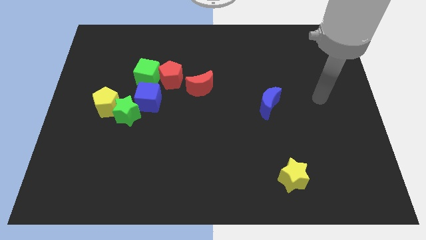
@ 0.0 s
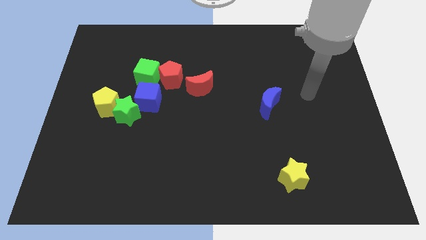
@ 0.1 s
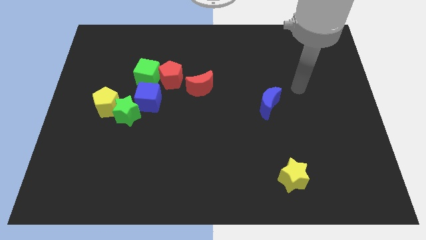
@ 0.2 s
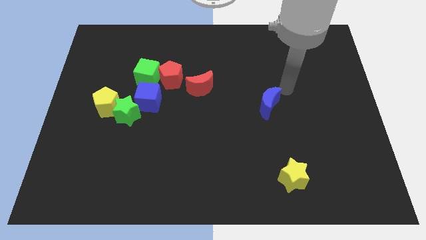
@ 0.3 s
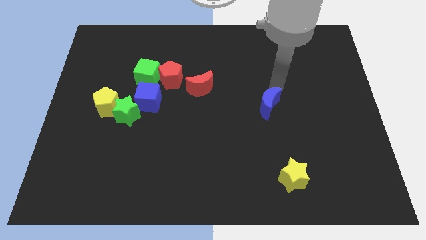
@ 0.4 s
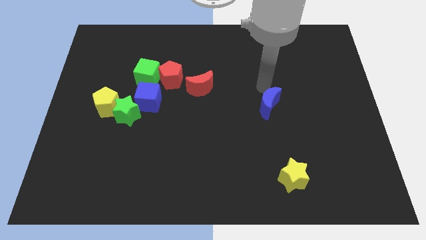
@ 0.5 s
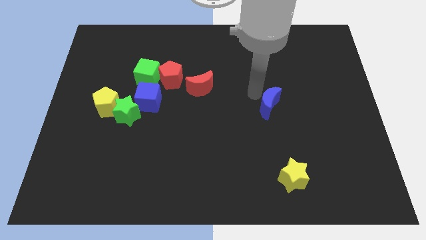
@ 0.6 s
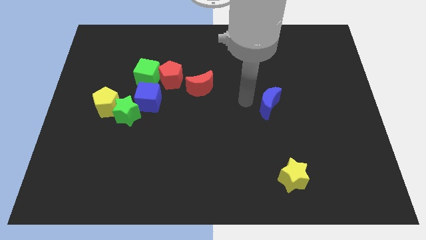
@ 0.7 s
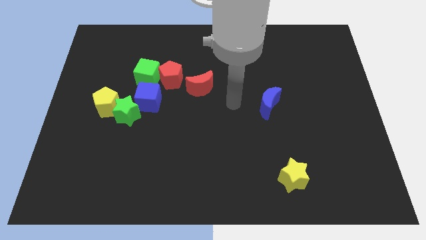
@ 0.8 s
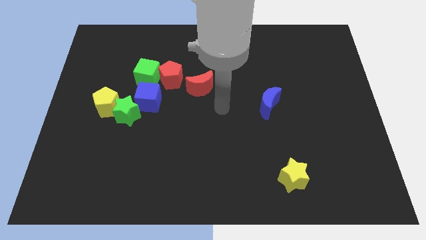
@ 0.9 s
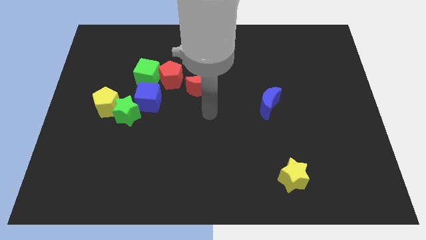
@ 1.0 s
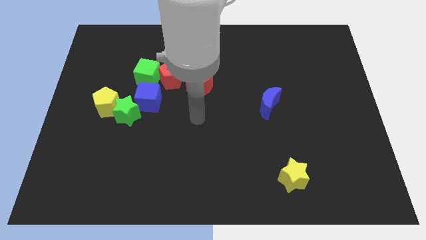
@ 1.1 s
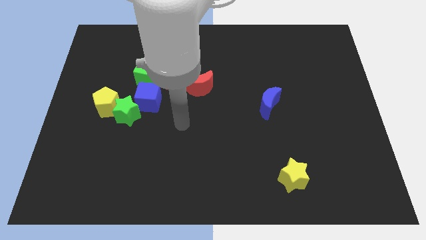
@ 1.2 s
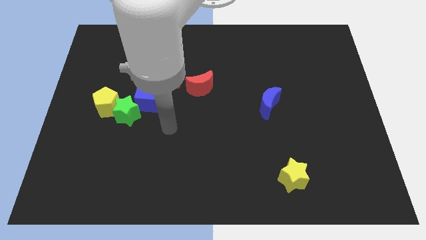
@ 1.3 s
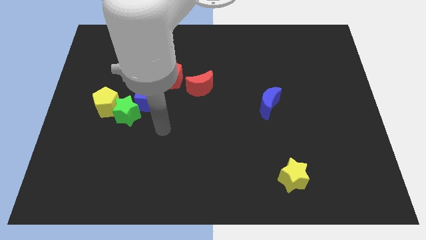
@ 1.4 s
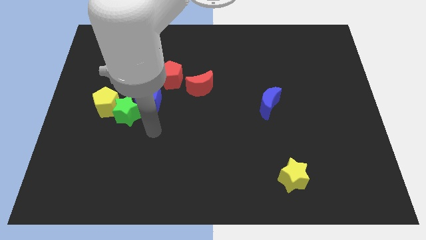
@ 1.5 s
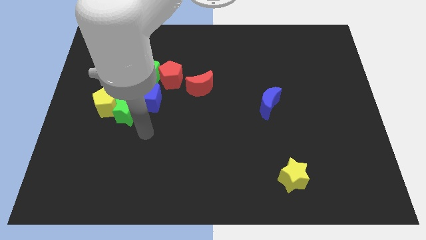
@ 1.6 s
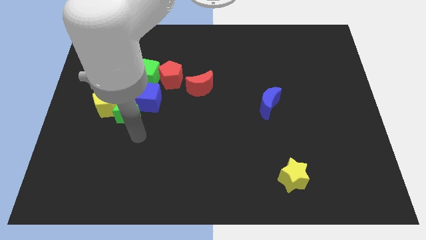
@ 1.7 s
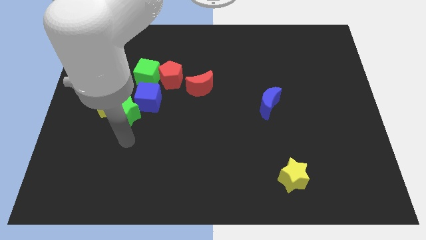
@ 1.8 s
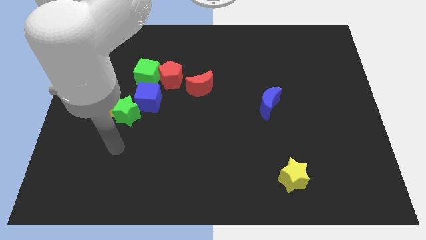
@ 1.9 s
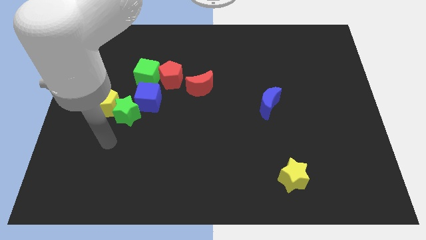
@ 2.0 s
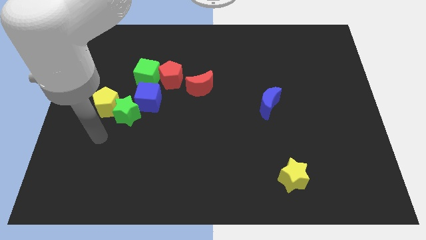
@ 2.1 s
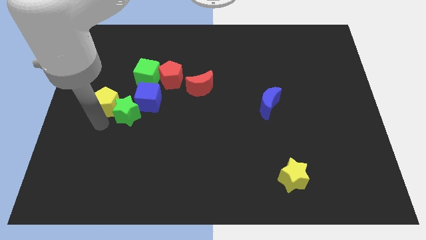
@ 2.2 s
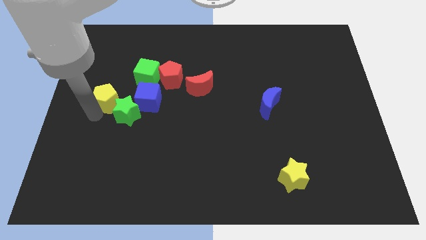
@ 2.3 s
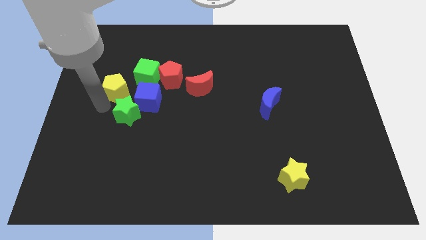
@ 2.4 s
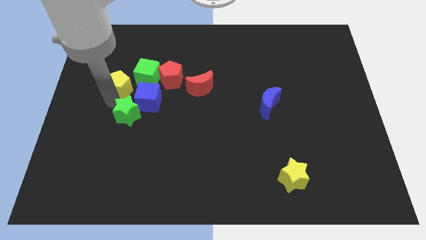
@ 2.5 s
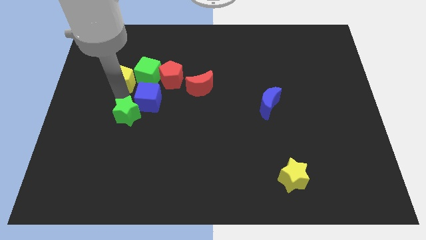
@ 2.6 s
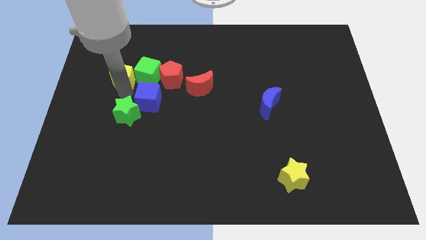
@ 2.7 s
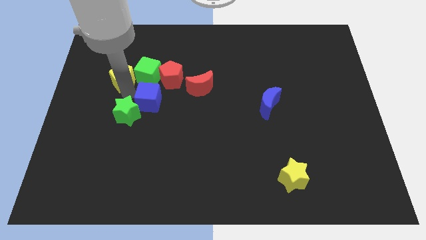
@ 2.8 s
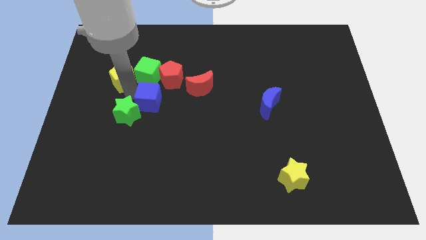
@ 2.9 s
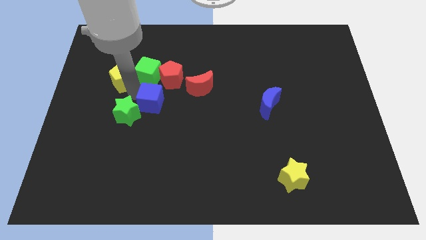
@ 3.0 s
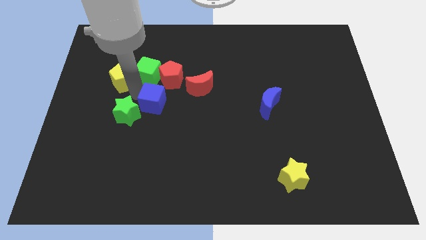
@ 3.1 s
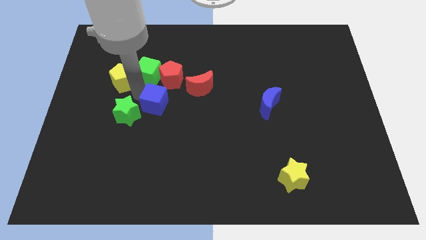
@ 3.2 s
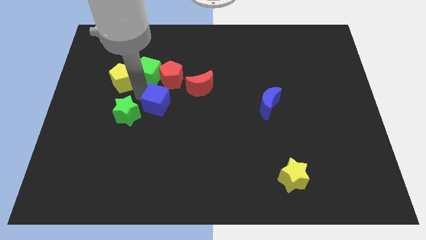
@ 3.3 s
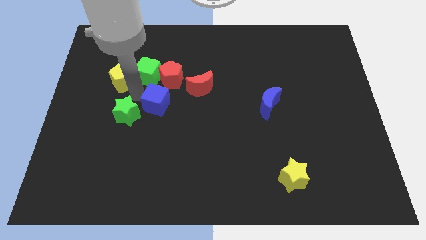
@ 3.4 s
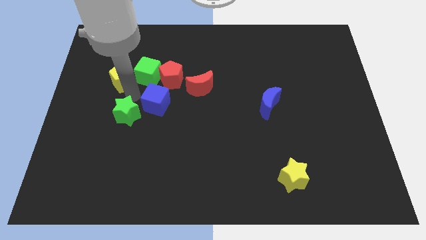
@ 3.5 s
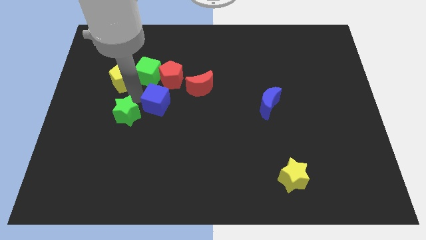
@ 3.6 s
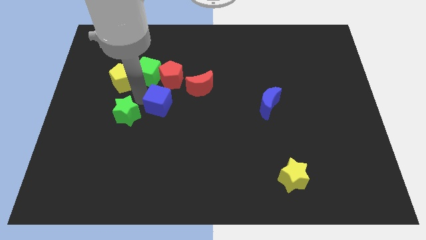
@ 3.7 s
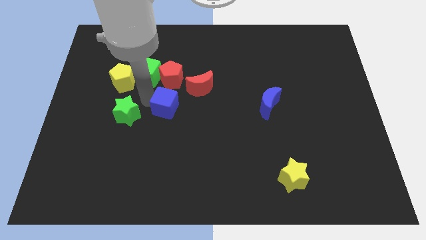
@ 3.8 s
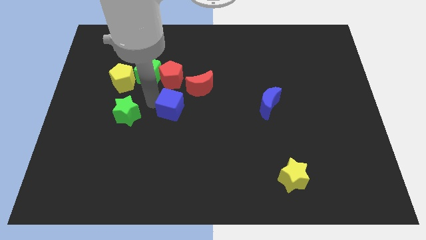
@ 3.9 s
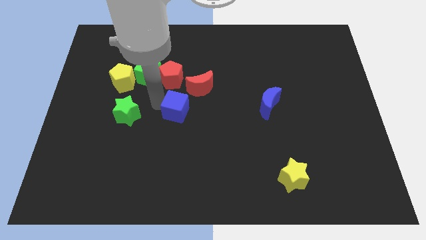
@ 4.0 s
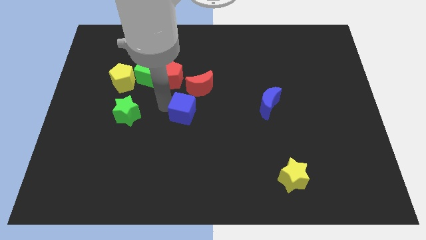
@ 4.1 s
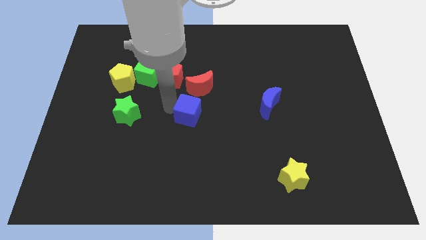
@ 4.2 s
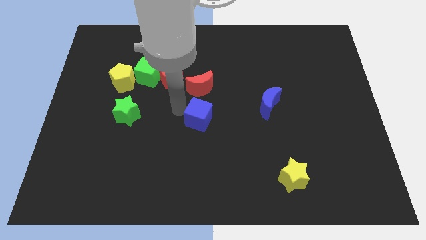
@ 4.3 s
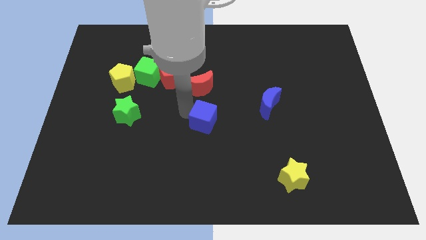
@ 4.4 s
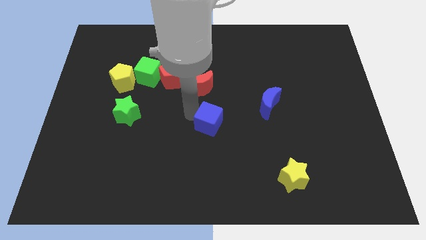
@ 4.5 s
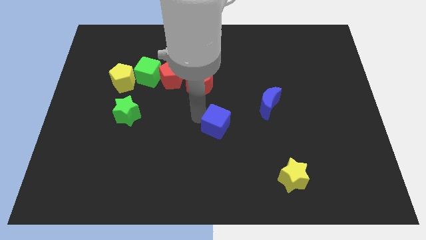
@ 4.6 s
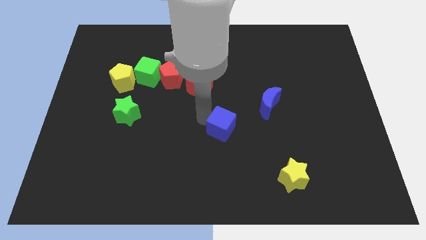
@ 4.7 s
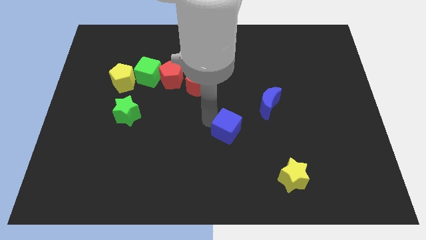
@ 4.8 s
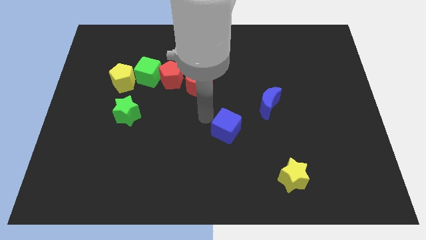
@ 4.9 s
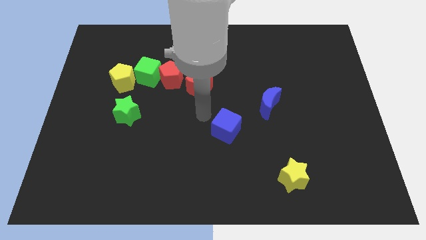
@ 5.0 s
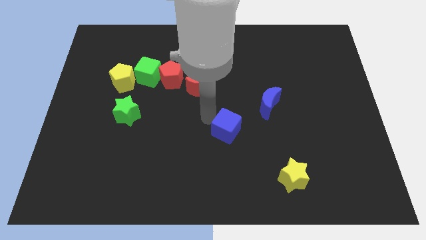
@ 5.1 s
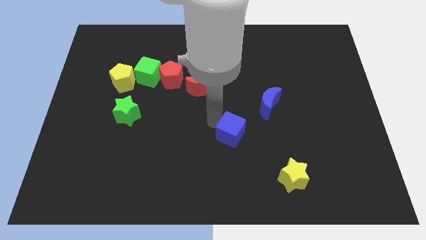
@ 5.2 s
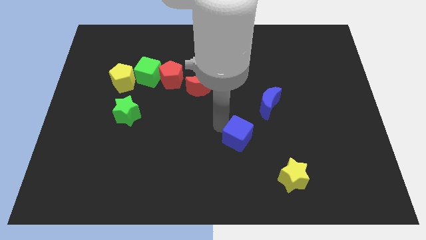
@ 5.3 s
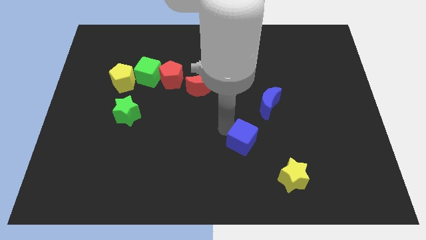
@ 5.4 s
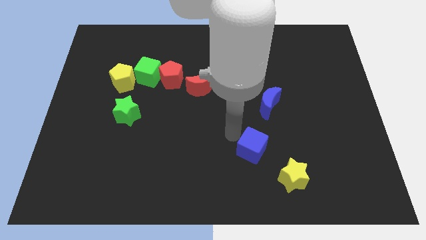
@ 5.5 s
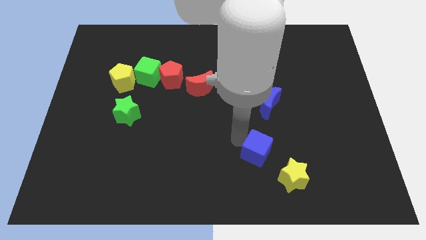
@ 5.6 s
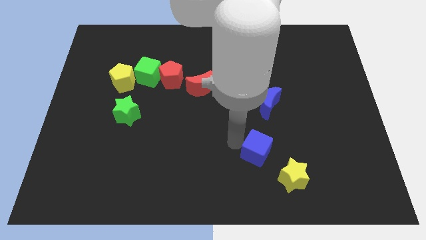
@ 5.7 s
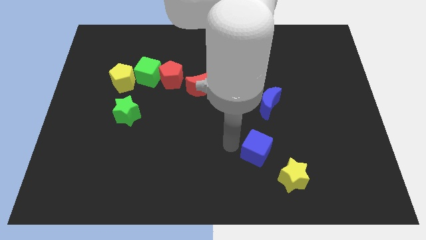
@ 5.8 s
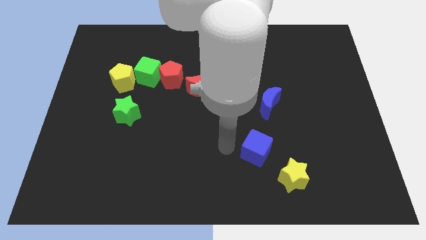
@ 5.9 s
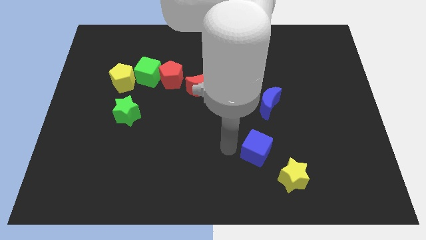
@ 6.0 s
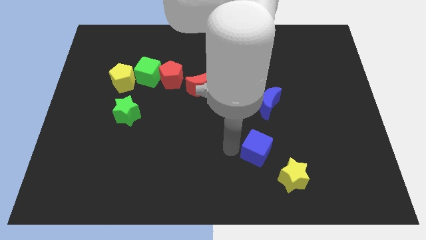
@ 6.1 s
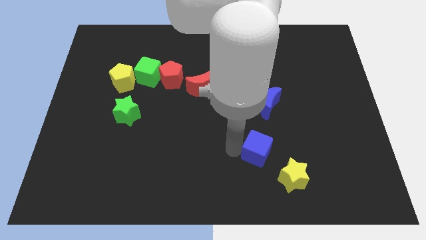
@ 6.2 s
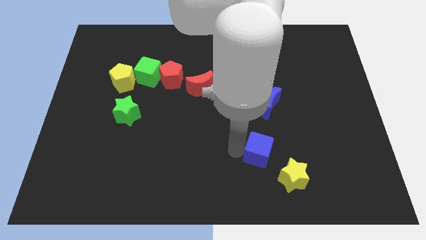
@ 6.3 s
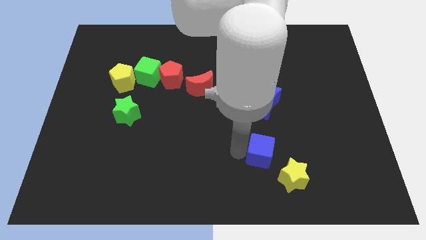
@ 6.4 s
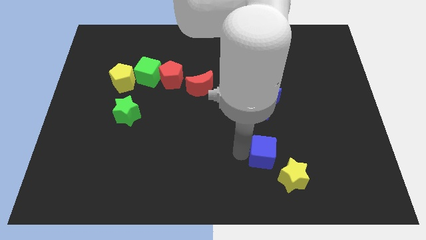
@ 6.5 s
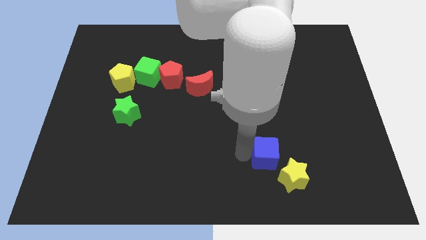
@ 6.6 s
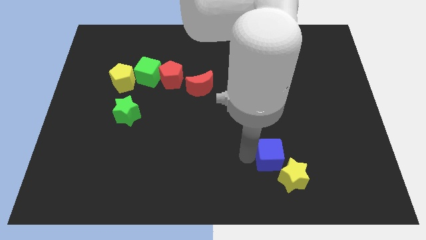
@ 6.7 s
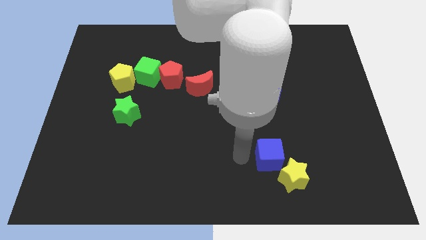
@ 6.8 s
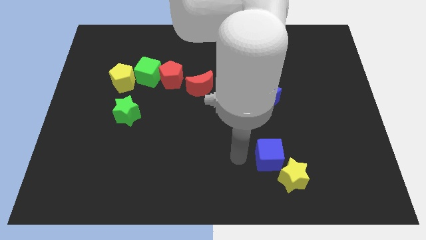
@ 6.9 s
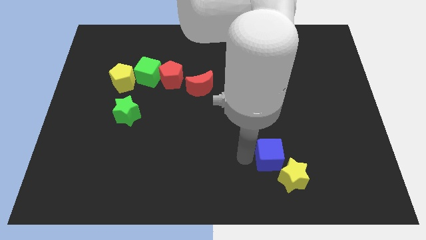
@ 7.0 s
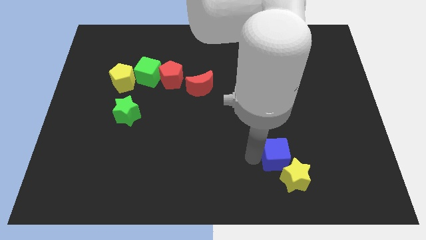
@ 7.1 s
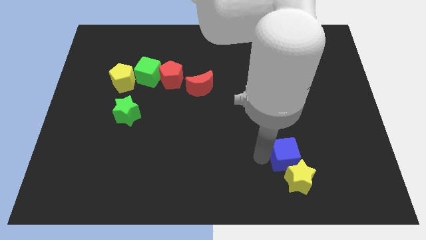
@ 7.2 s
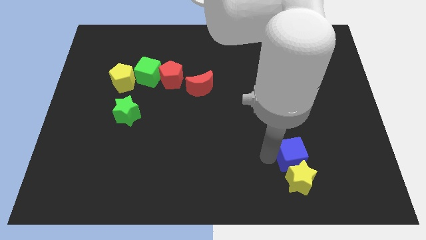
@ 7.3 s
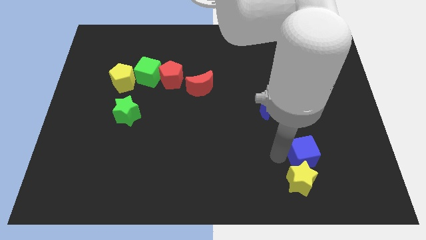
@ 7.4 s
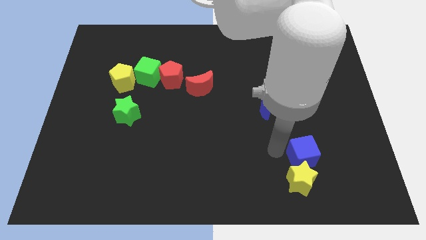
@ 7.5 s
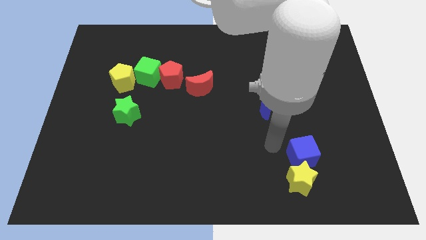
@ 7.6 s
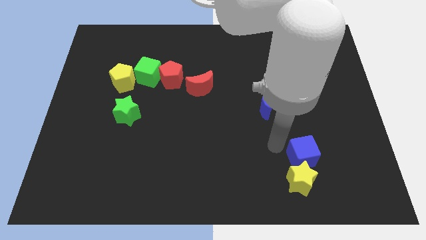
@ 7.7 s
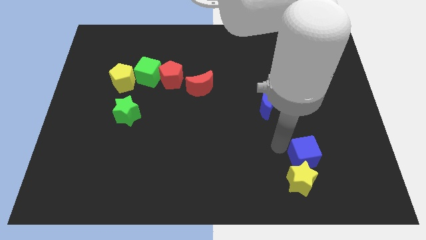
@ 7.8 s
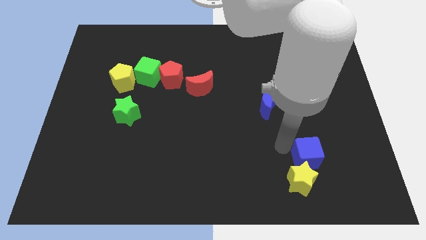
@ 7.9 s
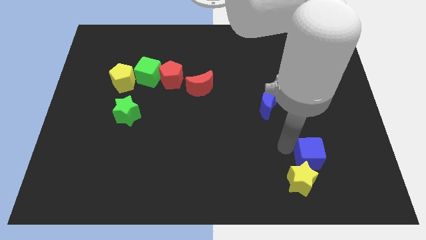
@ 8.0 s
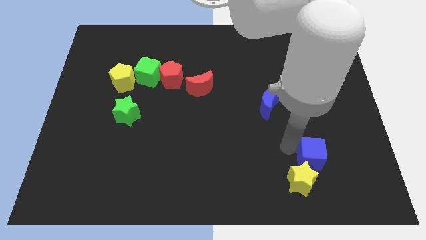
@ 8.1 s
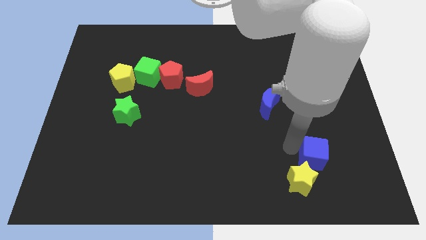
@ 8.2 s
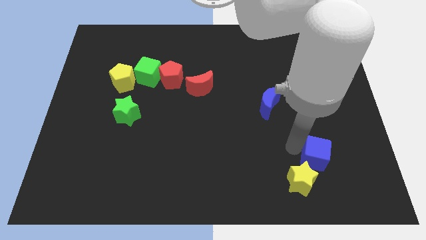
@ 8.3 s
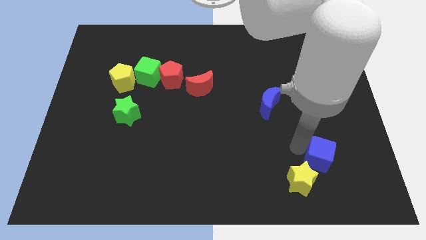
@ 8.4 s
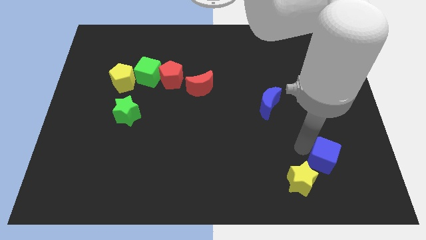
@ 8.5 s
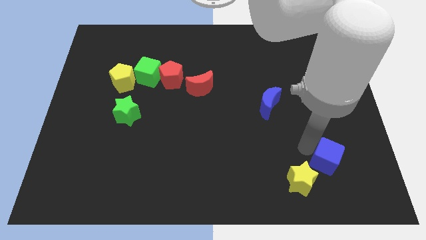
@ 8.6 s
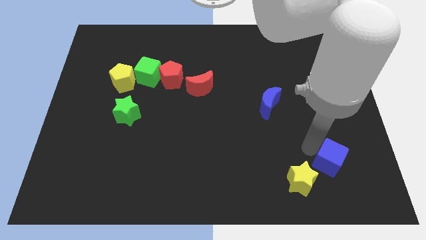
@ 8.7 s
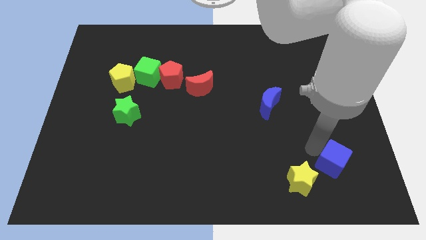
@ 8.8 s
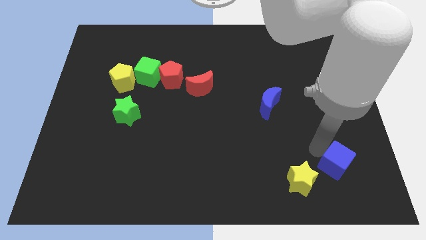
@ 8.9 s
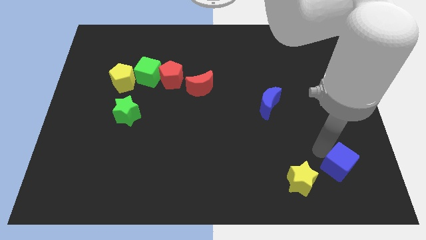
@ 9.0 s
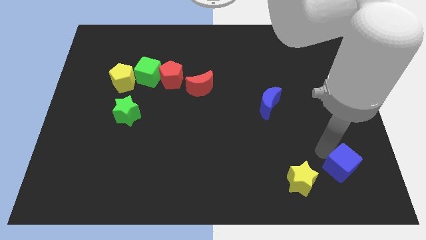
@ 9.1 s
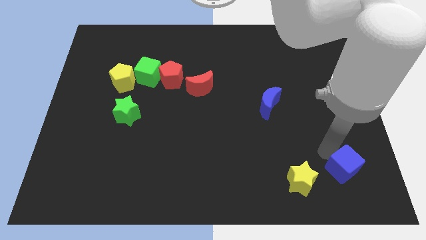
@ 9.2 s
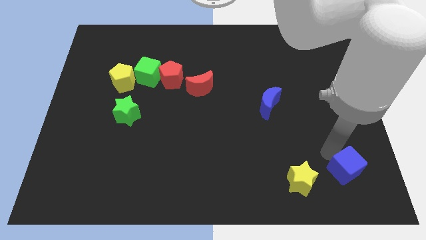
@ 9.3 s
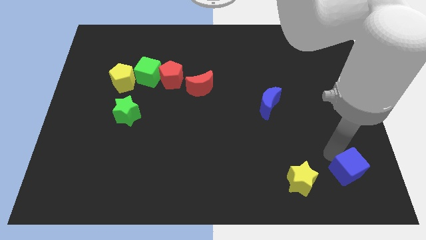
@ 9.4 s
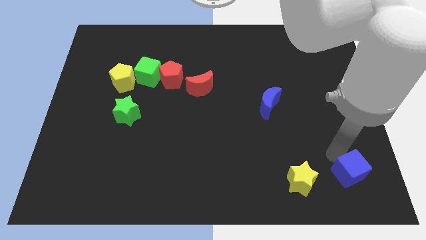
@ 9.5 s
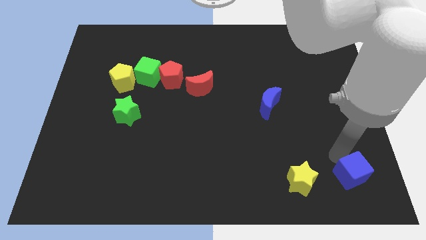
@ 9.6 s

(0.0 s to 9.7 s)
move the blue cube to the bottom right corner
